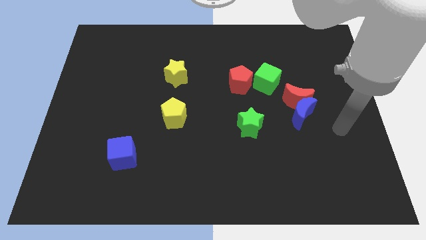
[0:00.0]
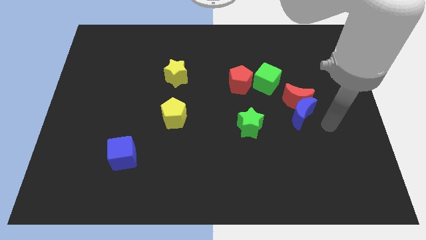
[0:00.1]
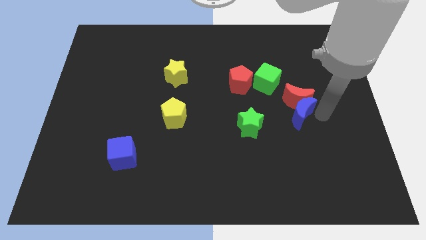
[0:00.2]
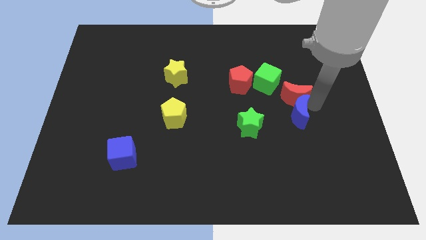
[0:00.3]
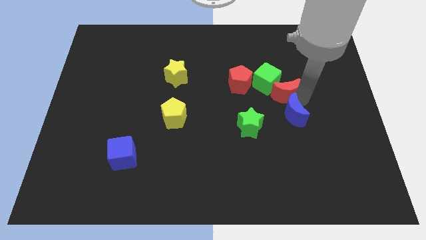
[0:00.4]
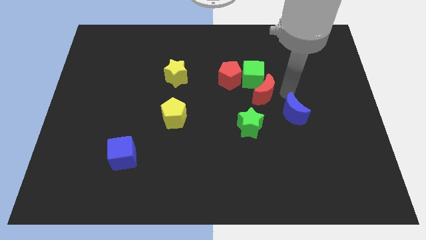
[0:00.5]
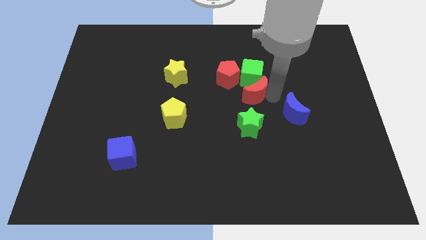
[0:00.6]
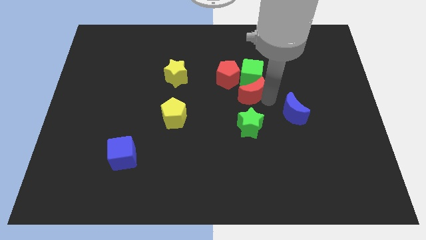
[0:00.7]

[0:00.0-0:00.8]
move the blue moon away from the red moon

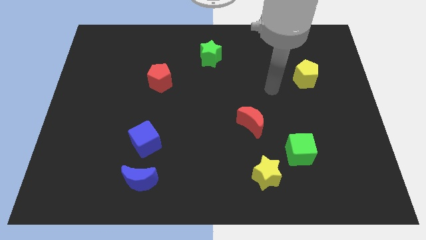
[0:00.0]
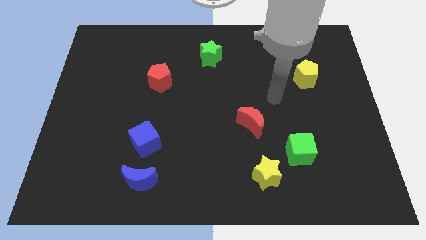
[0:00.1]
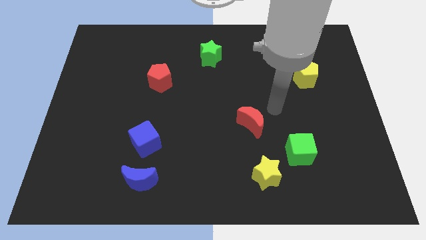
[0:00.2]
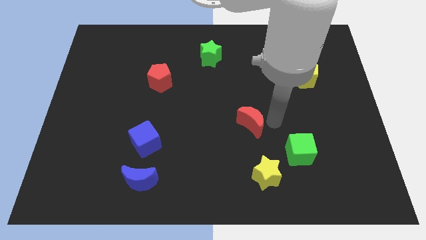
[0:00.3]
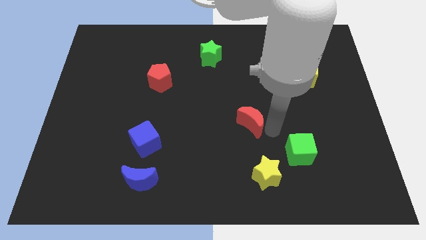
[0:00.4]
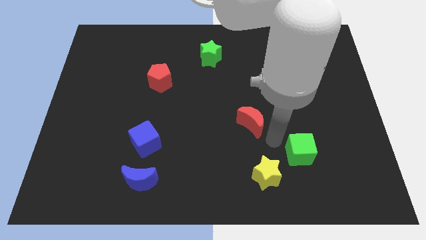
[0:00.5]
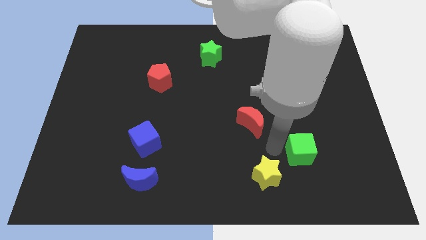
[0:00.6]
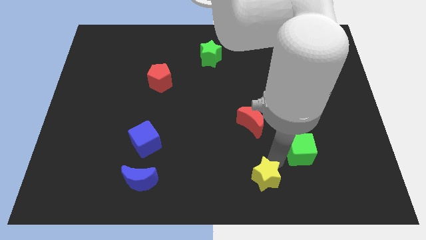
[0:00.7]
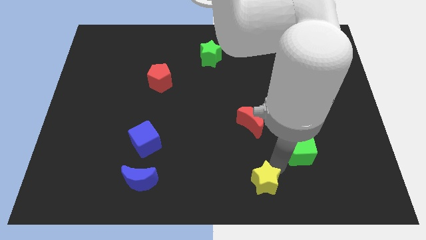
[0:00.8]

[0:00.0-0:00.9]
pull the green cube apart from the yellow star

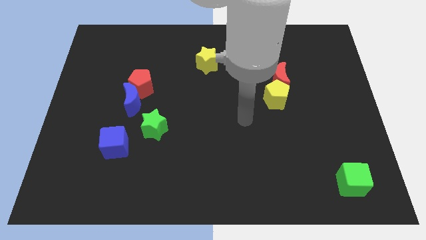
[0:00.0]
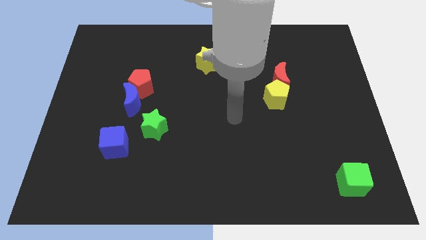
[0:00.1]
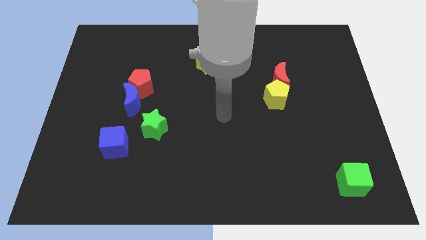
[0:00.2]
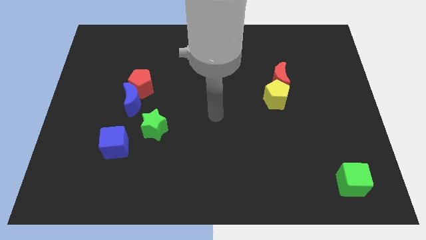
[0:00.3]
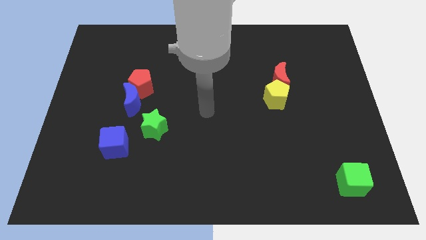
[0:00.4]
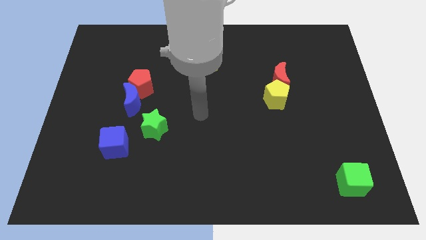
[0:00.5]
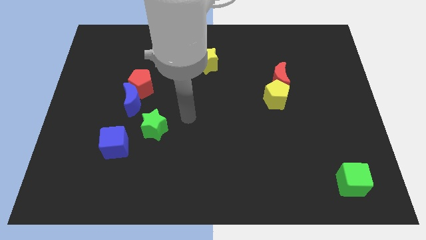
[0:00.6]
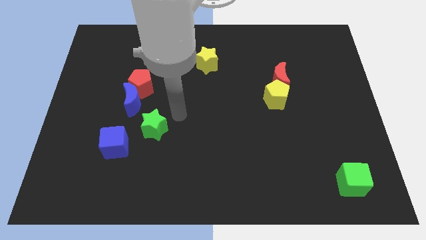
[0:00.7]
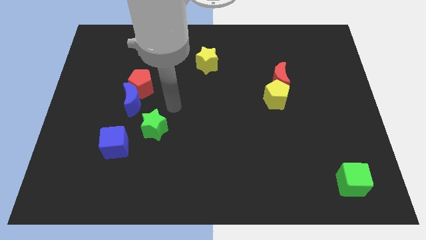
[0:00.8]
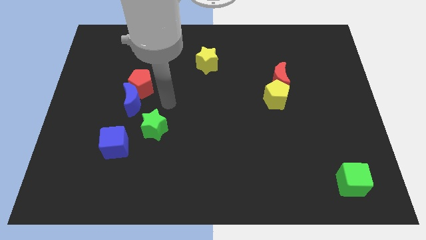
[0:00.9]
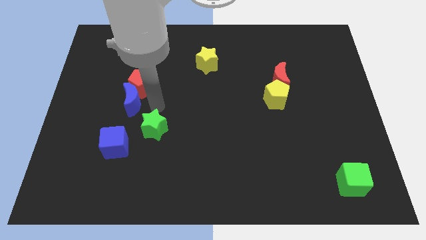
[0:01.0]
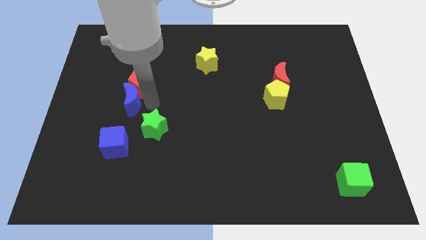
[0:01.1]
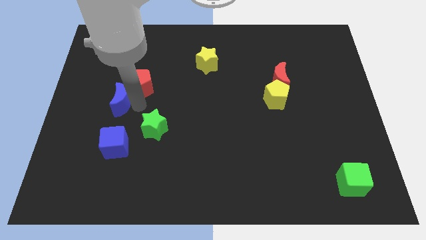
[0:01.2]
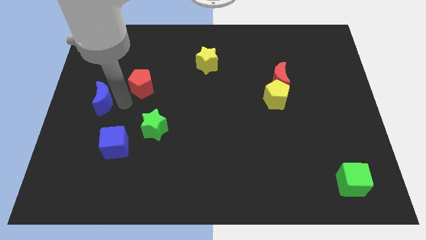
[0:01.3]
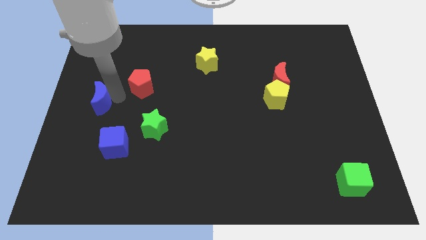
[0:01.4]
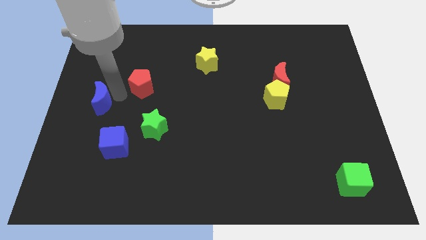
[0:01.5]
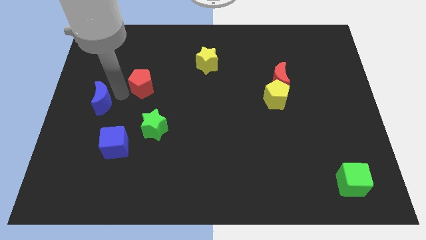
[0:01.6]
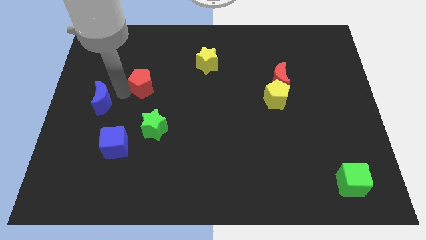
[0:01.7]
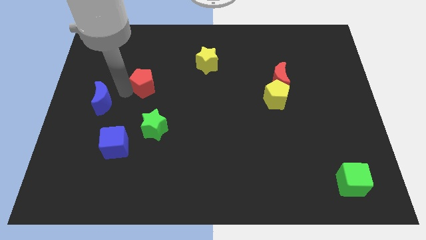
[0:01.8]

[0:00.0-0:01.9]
pull the red pentagon apart from the blue moon

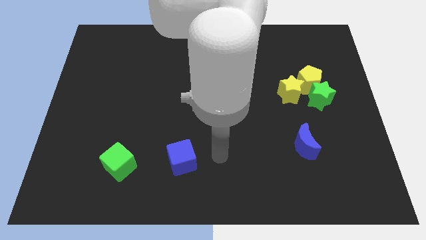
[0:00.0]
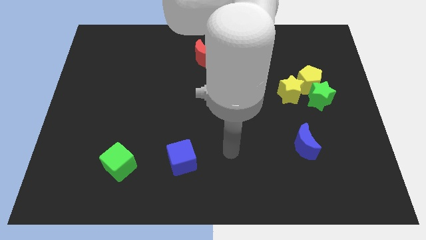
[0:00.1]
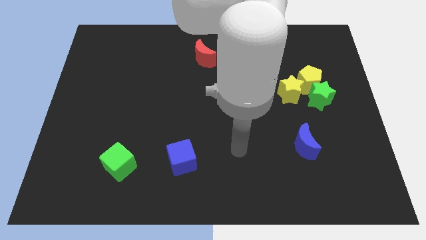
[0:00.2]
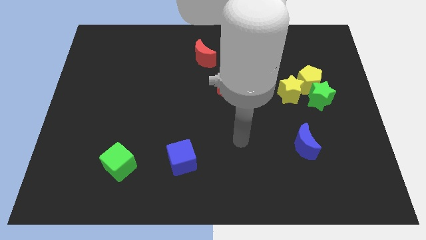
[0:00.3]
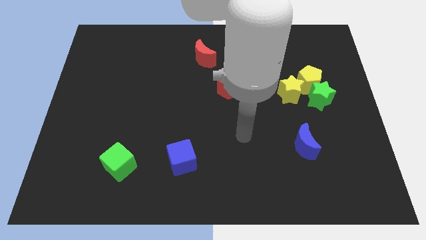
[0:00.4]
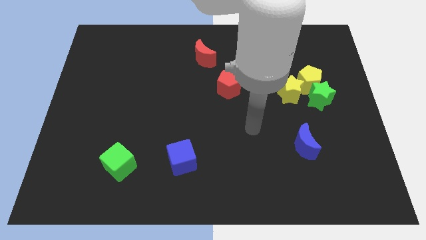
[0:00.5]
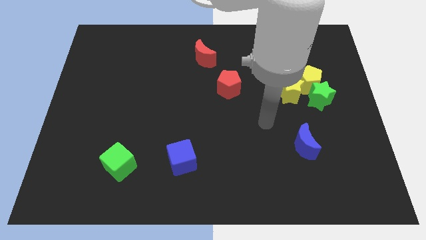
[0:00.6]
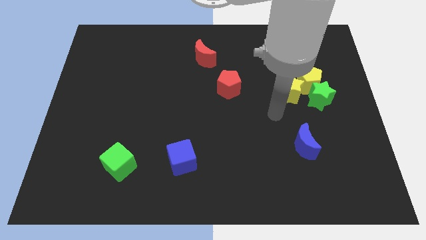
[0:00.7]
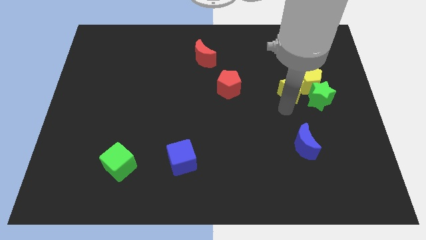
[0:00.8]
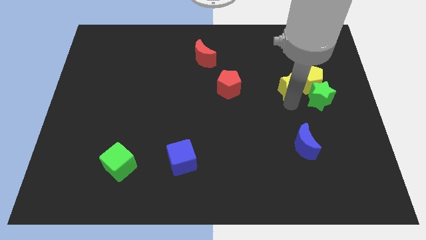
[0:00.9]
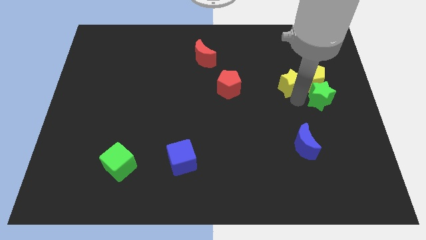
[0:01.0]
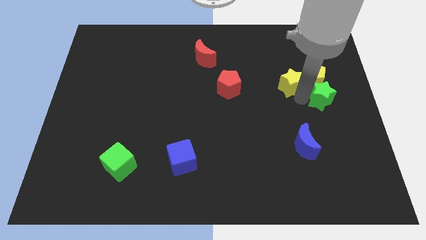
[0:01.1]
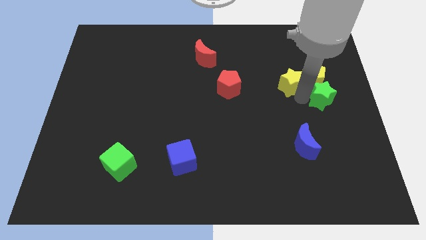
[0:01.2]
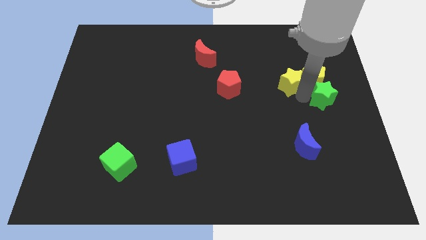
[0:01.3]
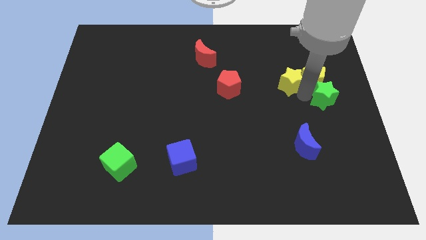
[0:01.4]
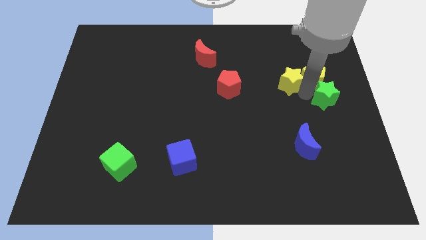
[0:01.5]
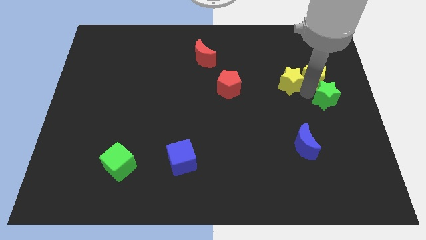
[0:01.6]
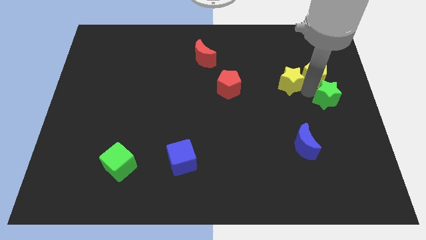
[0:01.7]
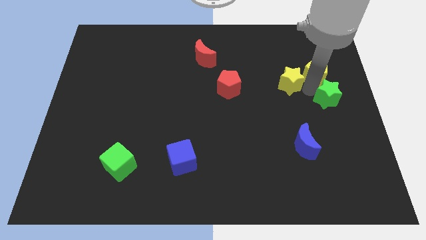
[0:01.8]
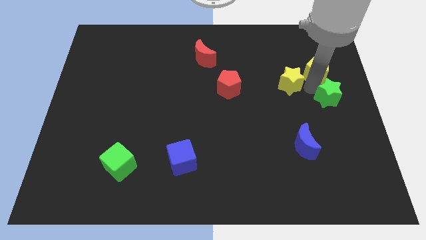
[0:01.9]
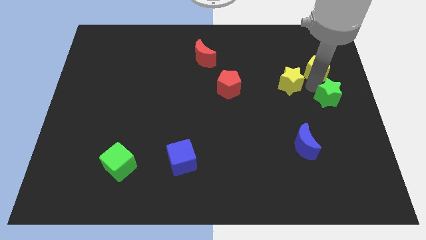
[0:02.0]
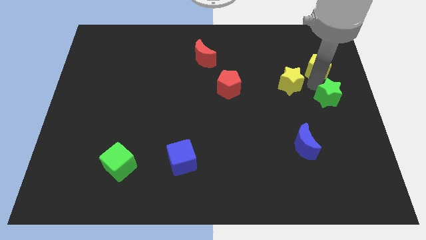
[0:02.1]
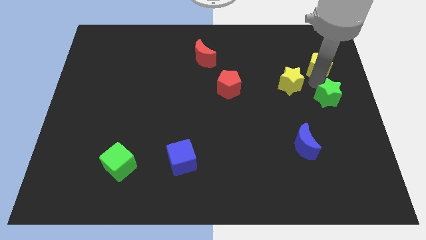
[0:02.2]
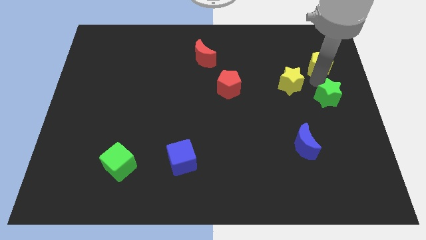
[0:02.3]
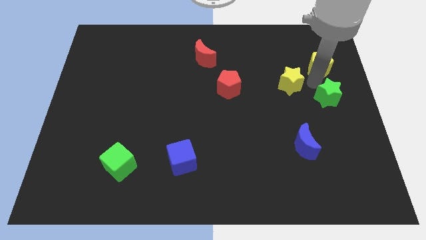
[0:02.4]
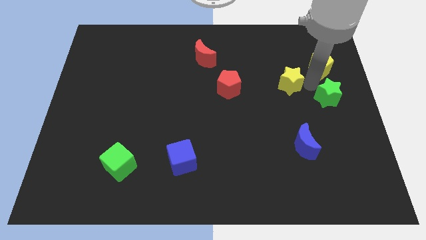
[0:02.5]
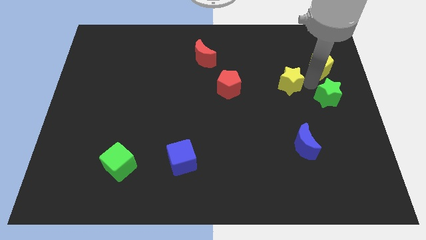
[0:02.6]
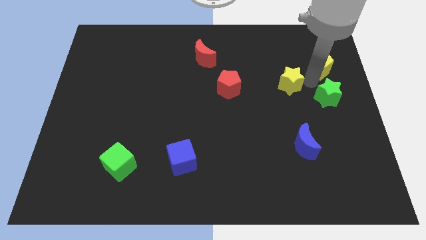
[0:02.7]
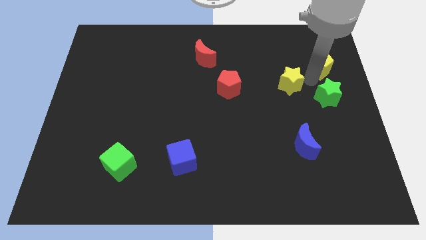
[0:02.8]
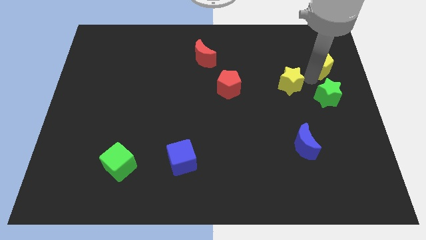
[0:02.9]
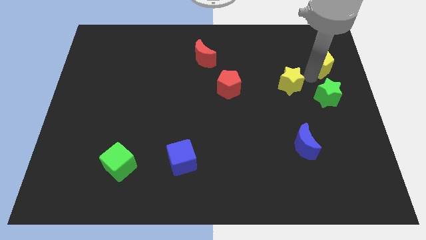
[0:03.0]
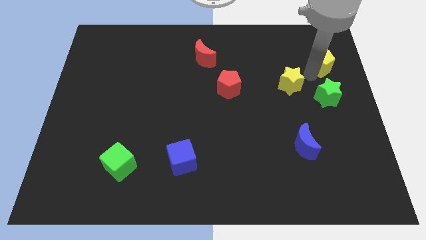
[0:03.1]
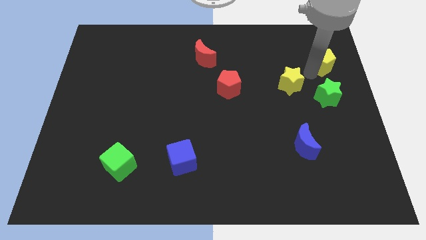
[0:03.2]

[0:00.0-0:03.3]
move the yellow pentagon away from the green star and yellow star

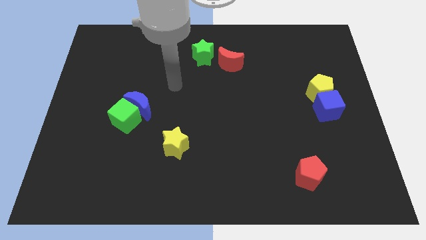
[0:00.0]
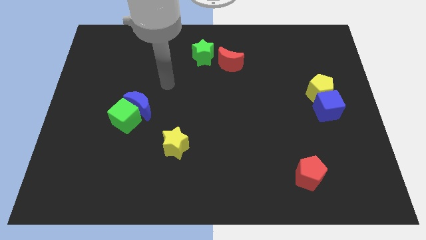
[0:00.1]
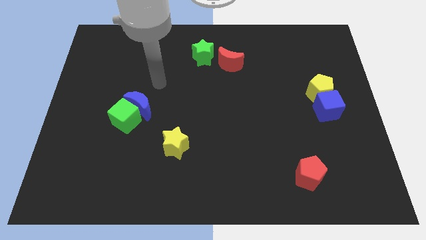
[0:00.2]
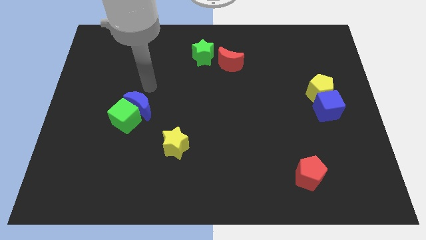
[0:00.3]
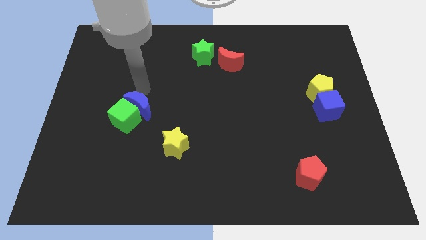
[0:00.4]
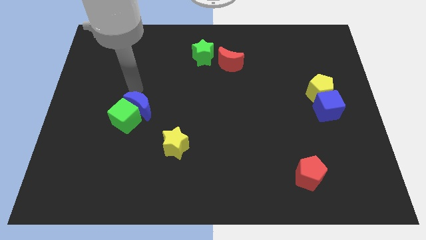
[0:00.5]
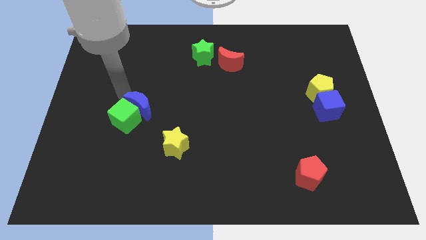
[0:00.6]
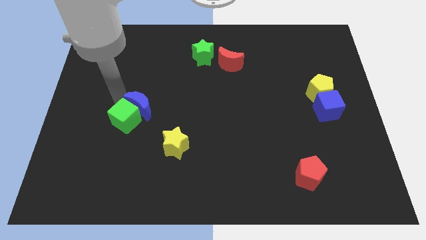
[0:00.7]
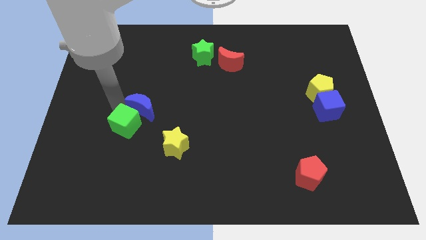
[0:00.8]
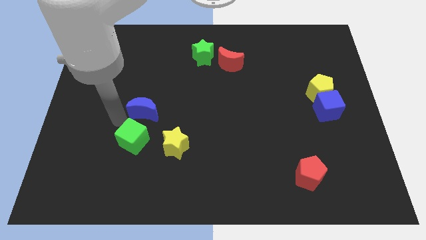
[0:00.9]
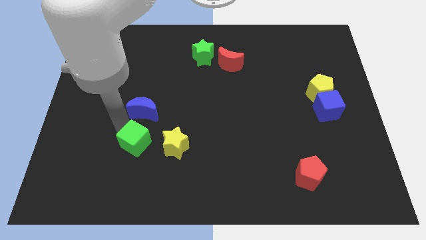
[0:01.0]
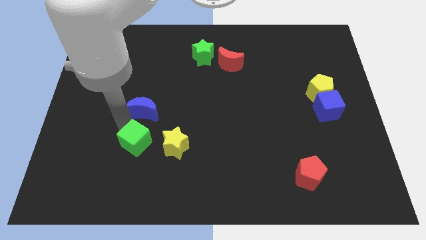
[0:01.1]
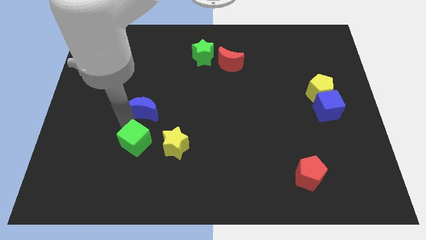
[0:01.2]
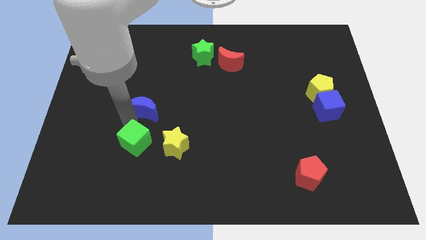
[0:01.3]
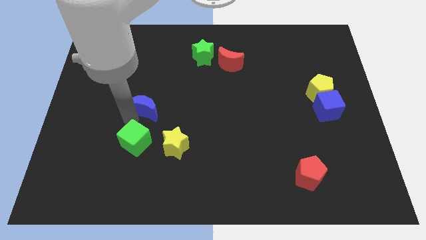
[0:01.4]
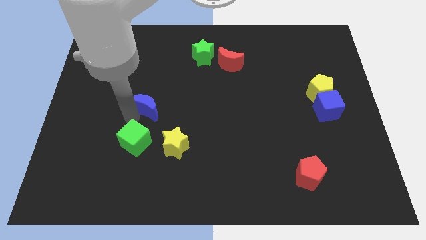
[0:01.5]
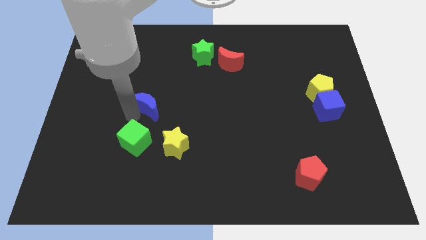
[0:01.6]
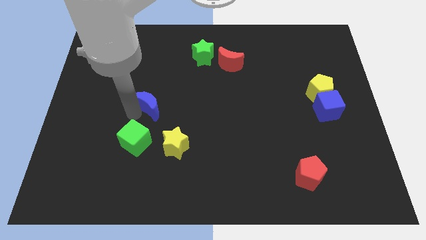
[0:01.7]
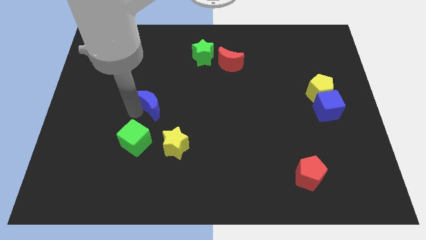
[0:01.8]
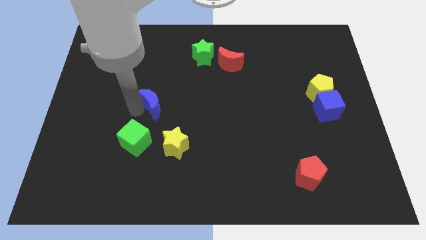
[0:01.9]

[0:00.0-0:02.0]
pull the blue moon apart from the green cube

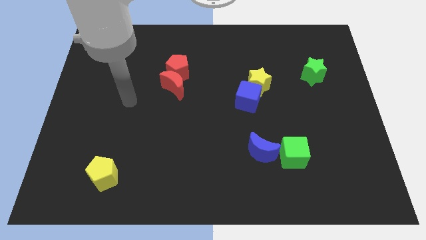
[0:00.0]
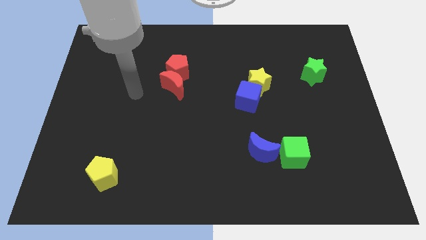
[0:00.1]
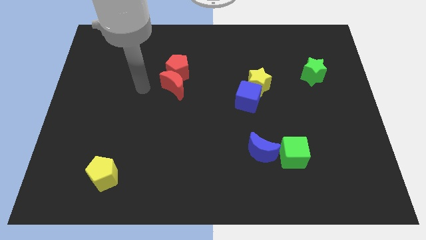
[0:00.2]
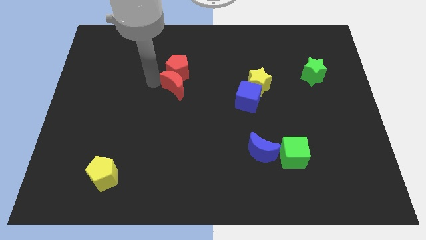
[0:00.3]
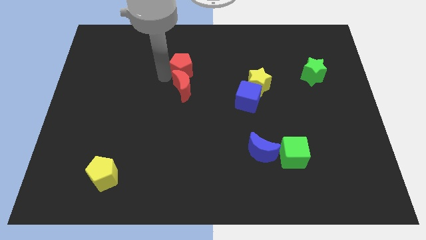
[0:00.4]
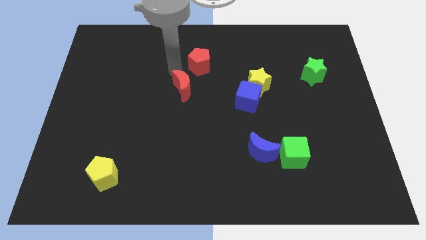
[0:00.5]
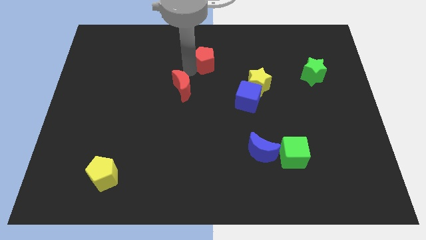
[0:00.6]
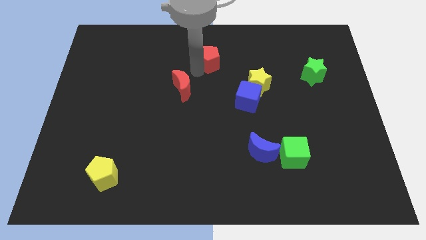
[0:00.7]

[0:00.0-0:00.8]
move the red moon away from the red pentagon
